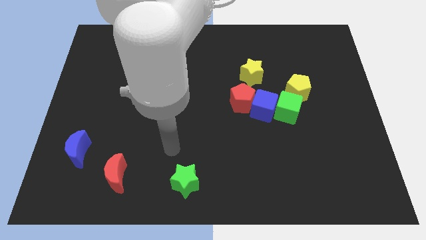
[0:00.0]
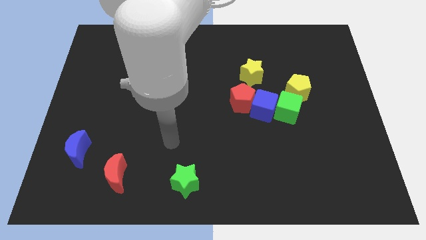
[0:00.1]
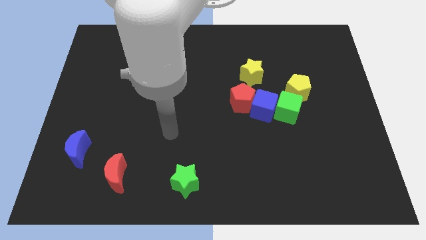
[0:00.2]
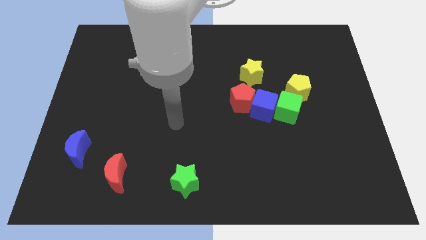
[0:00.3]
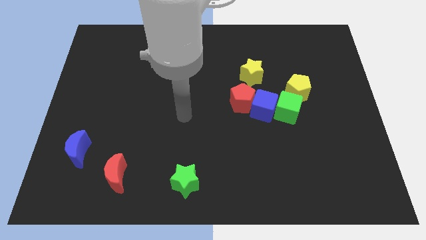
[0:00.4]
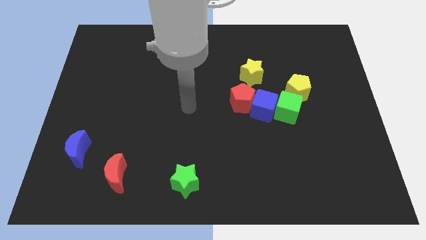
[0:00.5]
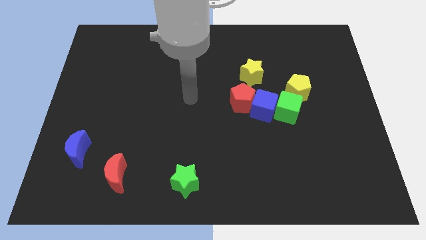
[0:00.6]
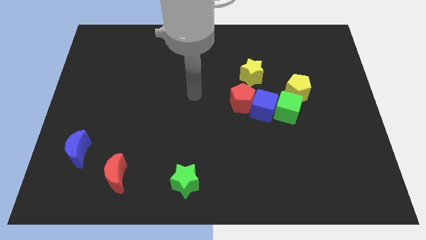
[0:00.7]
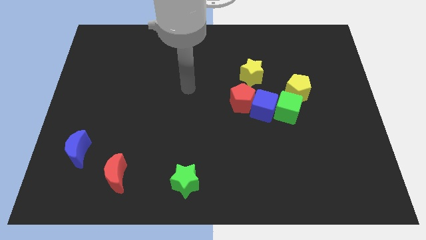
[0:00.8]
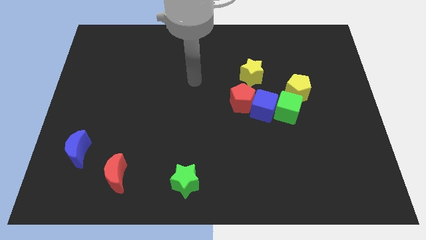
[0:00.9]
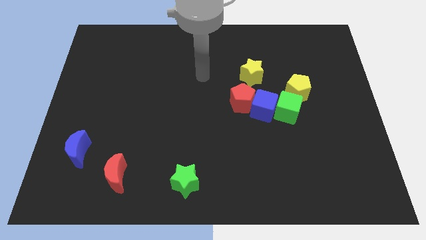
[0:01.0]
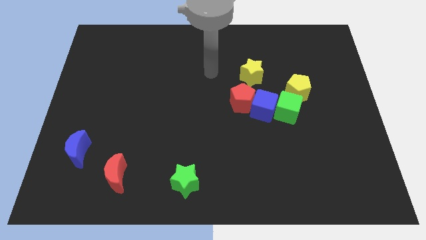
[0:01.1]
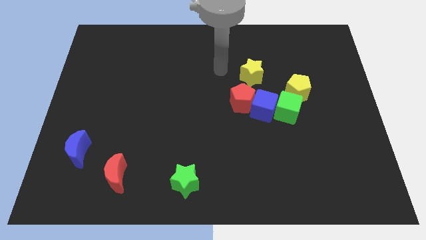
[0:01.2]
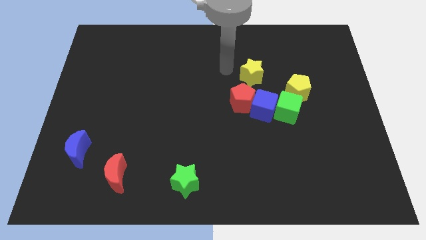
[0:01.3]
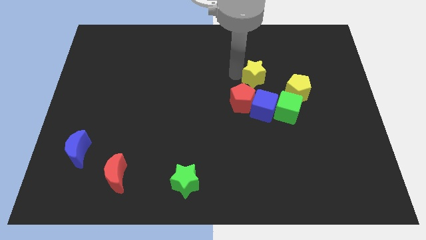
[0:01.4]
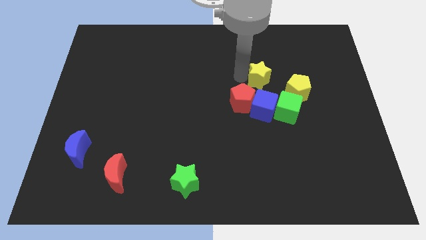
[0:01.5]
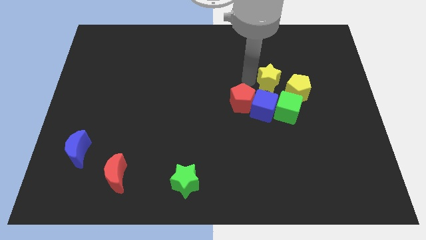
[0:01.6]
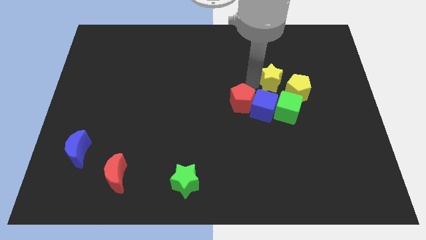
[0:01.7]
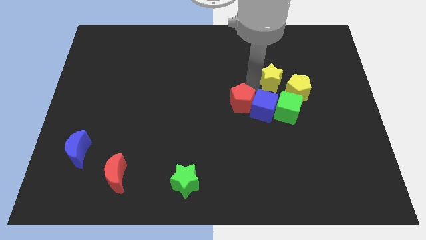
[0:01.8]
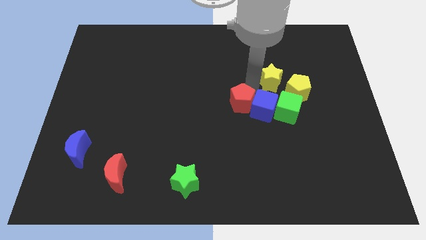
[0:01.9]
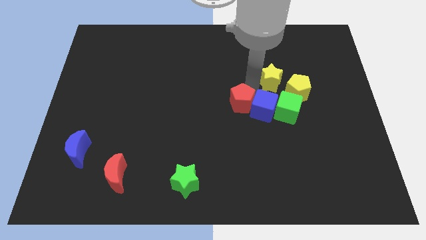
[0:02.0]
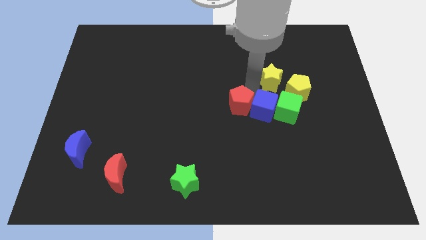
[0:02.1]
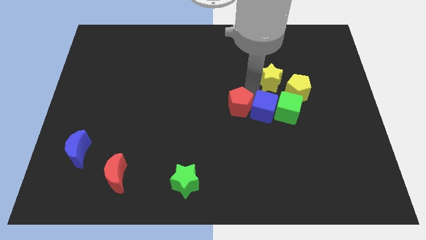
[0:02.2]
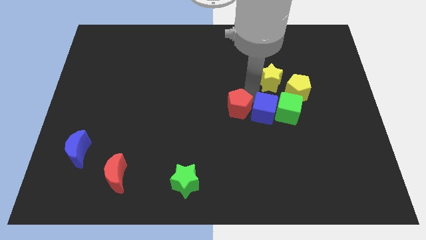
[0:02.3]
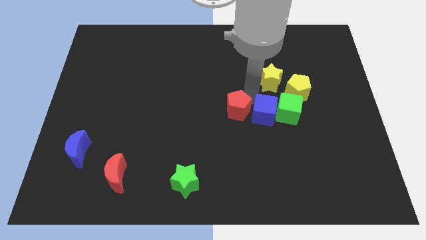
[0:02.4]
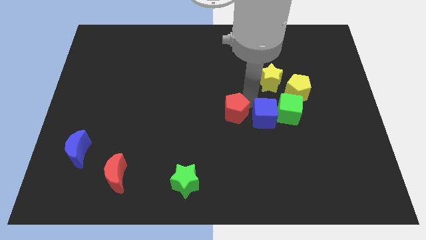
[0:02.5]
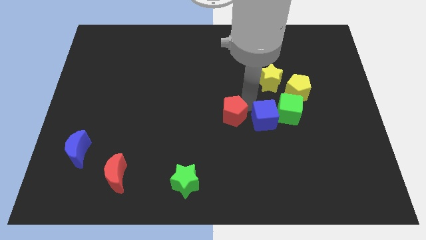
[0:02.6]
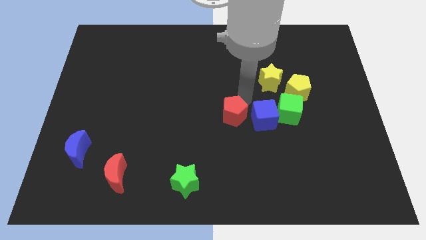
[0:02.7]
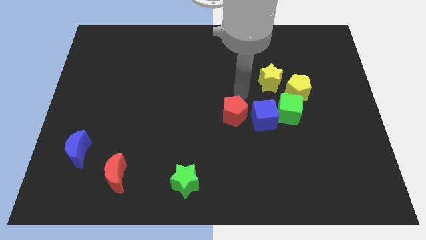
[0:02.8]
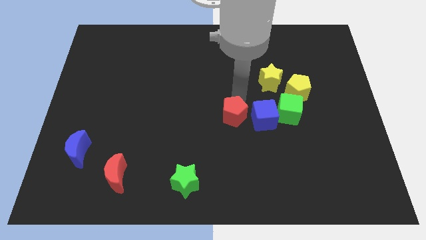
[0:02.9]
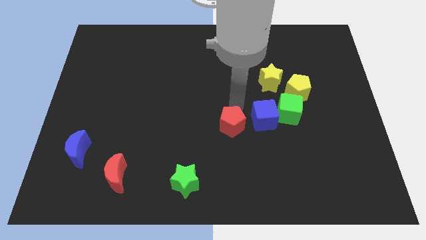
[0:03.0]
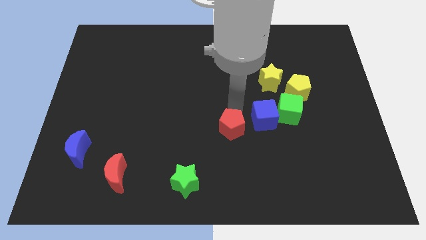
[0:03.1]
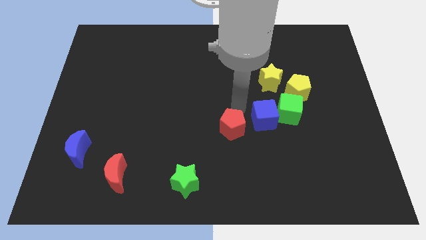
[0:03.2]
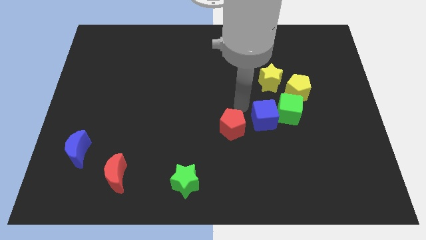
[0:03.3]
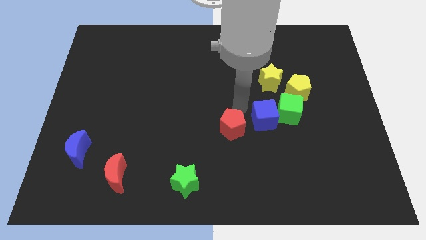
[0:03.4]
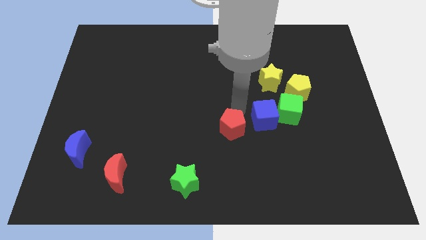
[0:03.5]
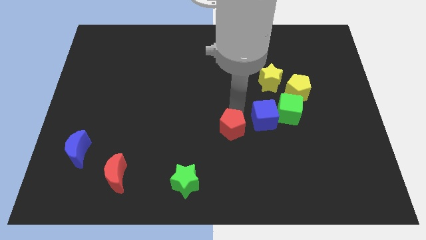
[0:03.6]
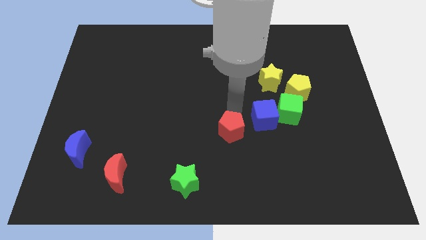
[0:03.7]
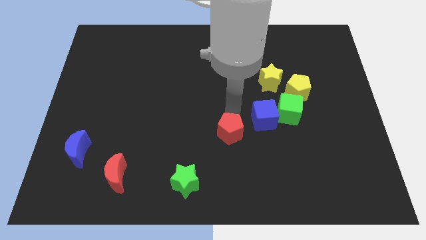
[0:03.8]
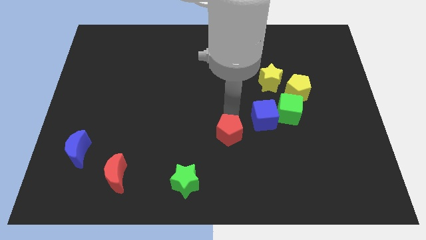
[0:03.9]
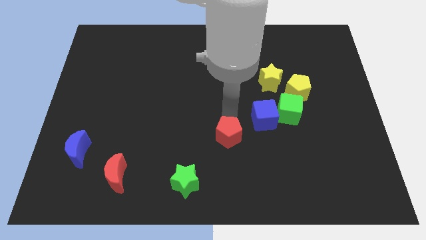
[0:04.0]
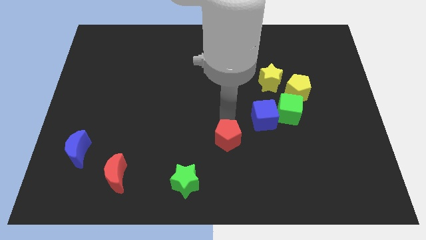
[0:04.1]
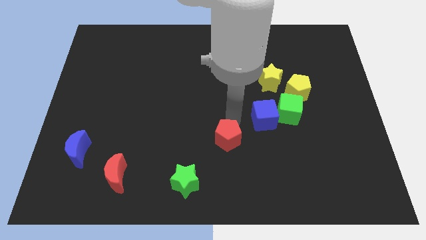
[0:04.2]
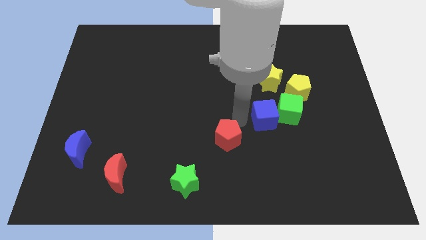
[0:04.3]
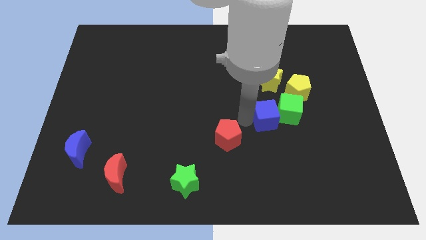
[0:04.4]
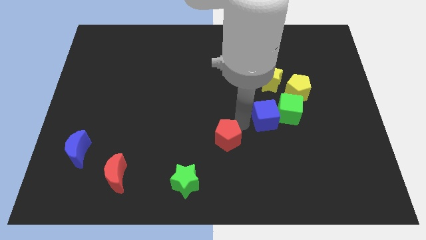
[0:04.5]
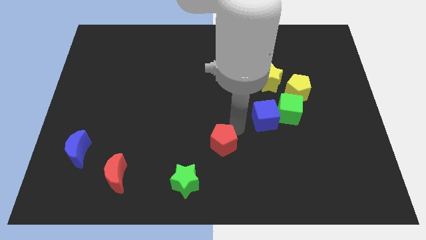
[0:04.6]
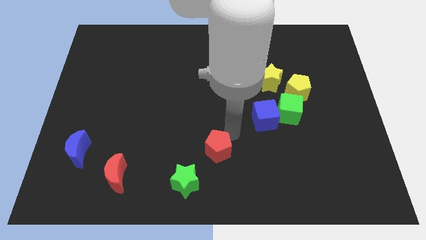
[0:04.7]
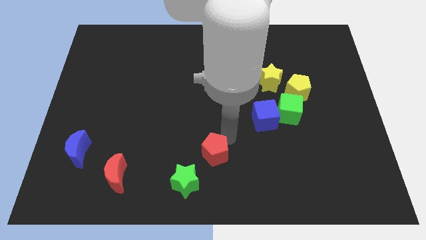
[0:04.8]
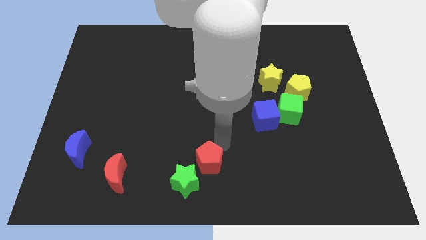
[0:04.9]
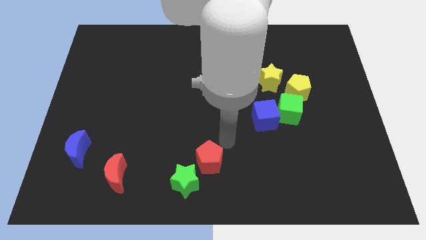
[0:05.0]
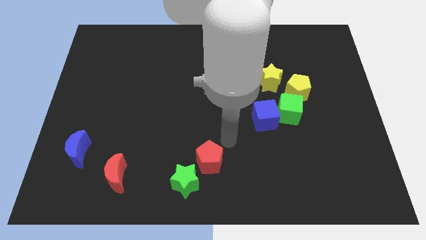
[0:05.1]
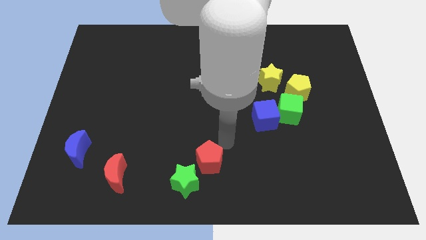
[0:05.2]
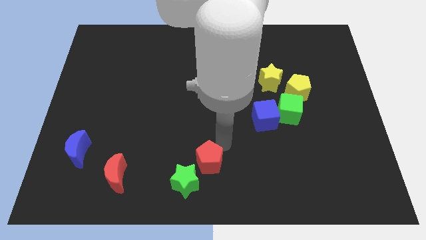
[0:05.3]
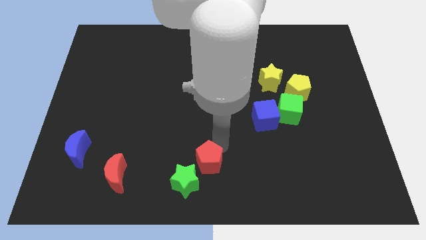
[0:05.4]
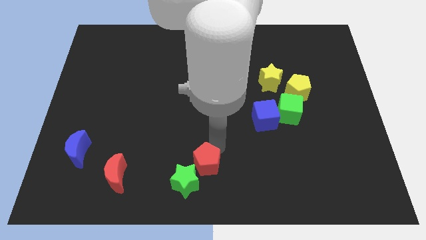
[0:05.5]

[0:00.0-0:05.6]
slide the red pentagon towards the green star
